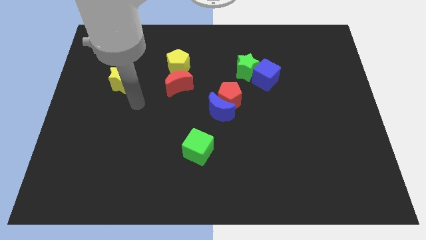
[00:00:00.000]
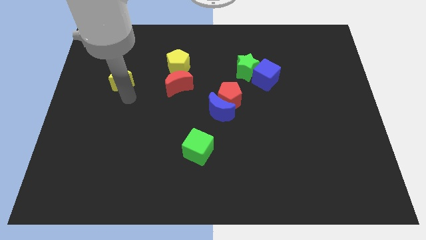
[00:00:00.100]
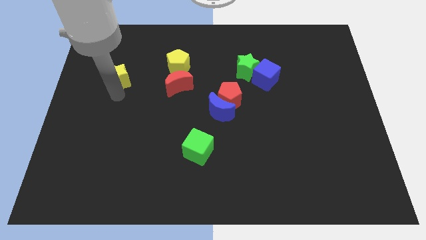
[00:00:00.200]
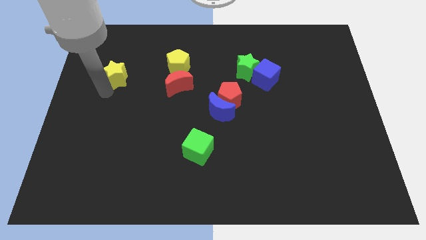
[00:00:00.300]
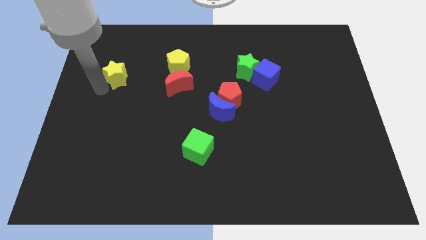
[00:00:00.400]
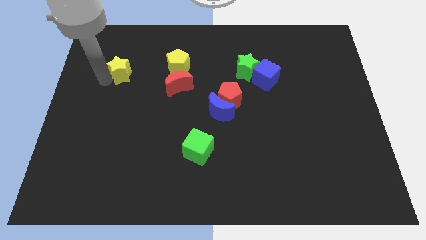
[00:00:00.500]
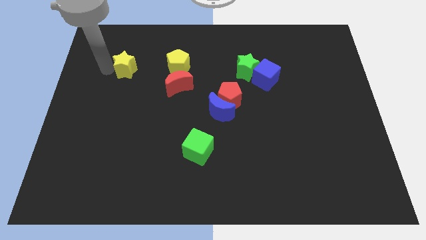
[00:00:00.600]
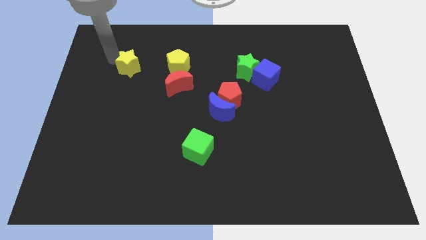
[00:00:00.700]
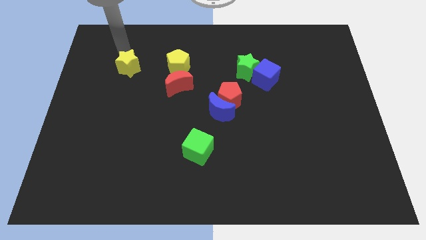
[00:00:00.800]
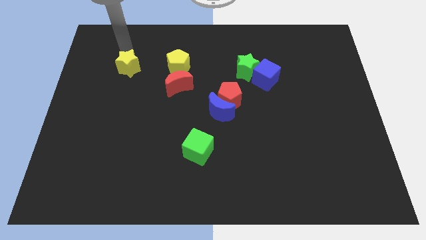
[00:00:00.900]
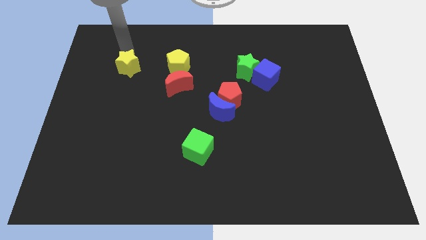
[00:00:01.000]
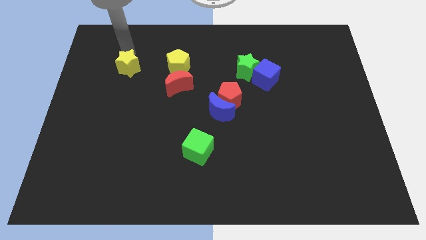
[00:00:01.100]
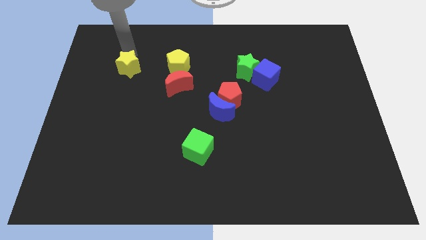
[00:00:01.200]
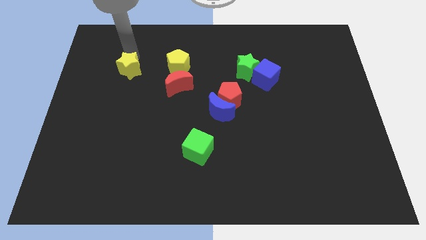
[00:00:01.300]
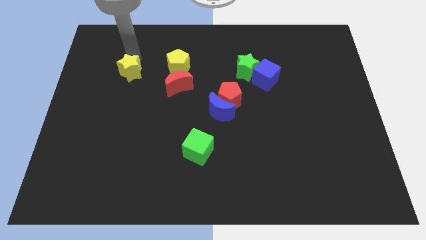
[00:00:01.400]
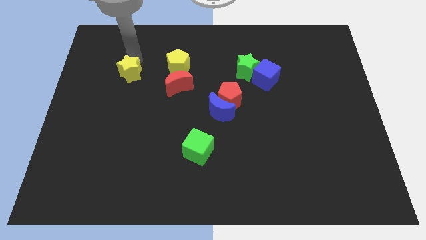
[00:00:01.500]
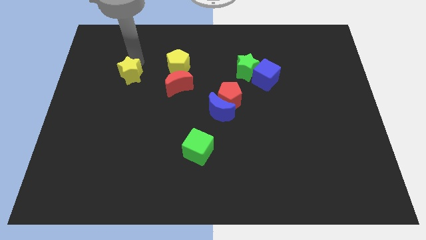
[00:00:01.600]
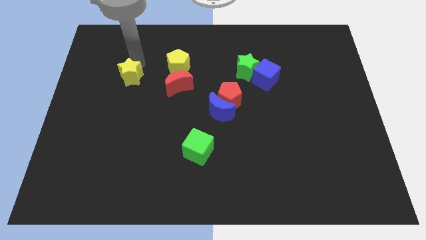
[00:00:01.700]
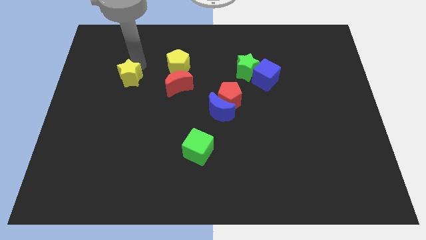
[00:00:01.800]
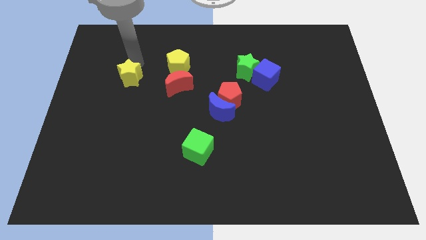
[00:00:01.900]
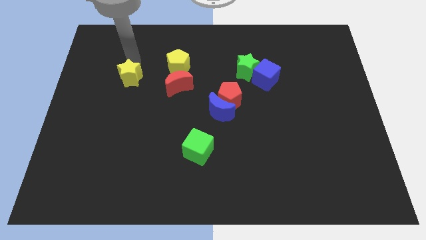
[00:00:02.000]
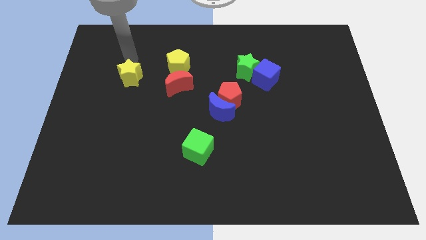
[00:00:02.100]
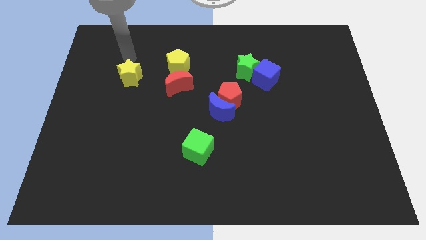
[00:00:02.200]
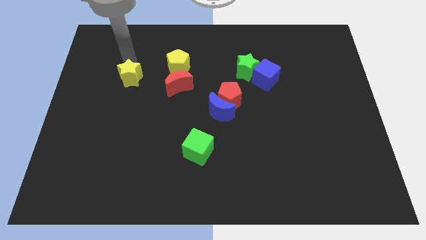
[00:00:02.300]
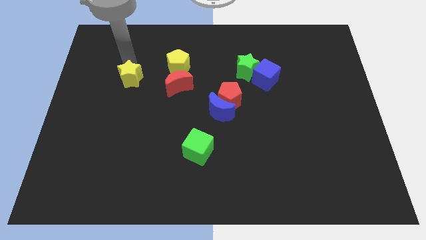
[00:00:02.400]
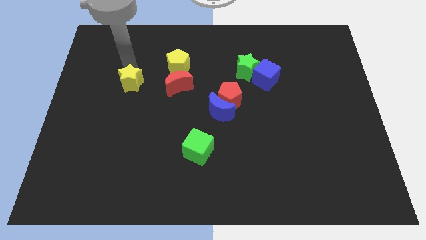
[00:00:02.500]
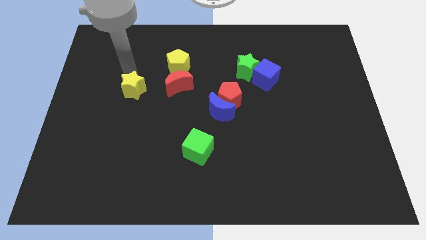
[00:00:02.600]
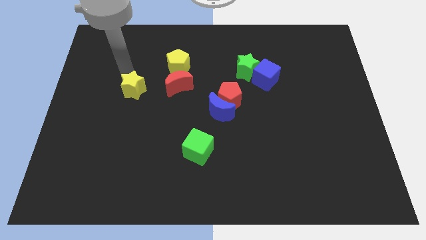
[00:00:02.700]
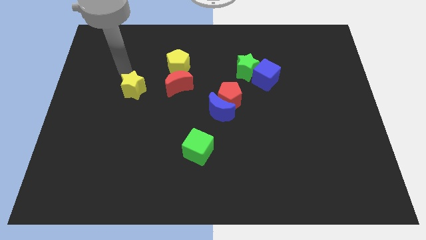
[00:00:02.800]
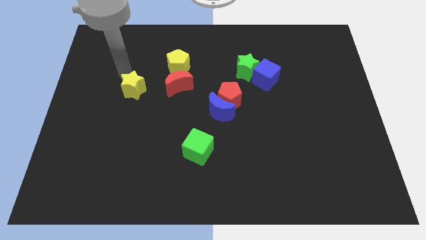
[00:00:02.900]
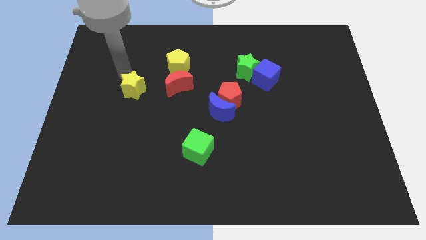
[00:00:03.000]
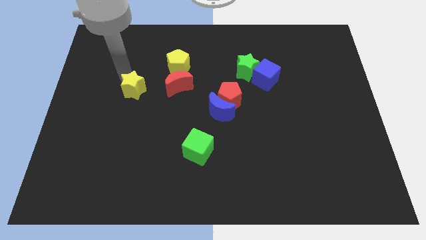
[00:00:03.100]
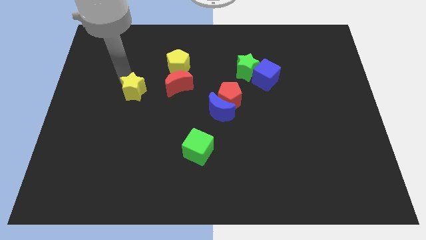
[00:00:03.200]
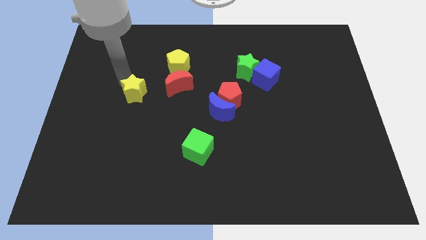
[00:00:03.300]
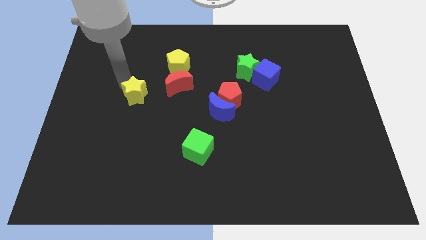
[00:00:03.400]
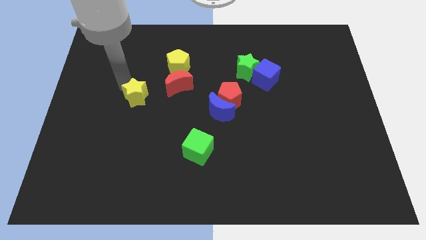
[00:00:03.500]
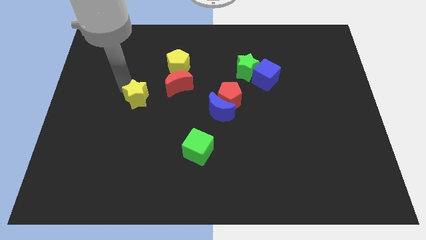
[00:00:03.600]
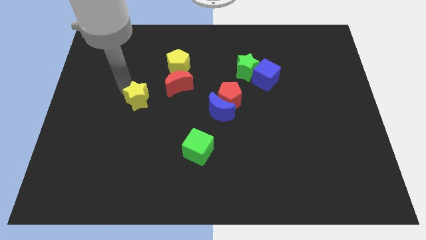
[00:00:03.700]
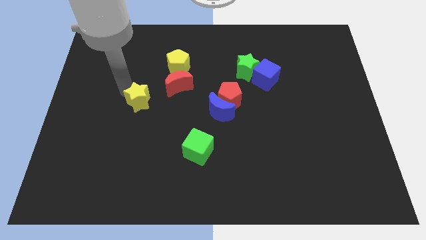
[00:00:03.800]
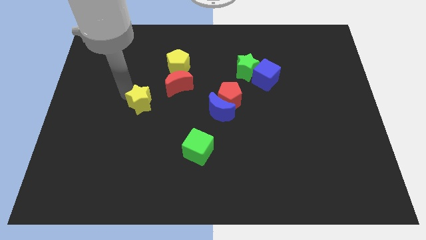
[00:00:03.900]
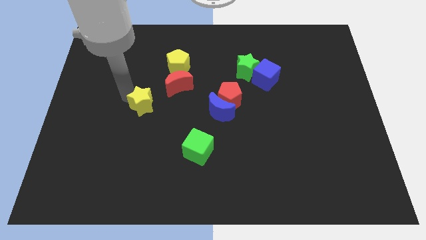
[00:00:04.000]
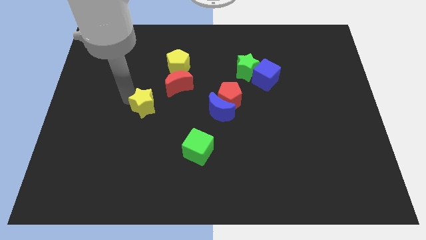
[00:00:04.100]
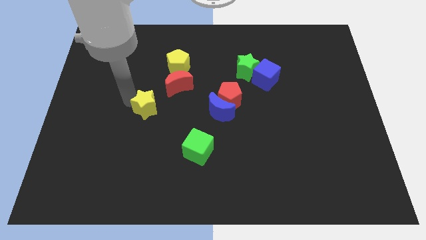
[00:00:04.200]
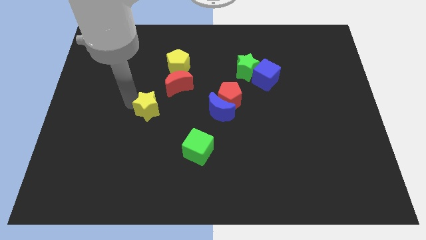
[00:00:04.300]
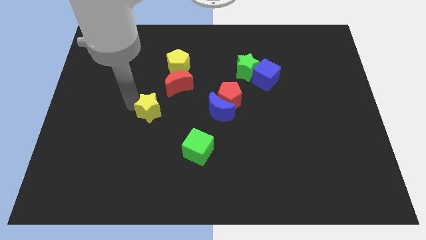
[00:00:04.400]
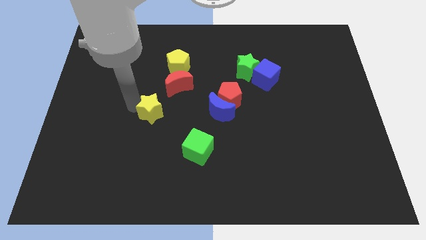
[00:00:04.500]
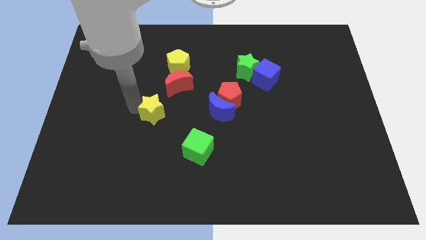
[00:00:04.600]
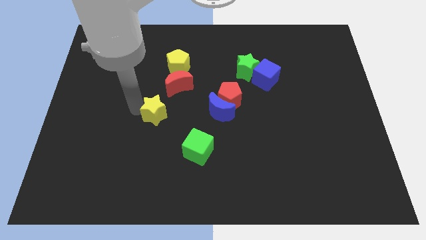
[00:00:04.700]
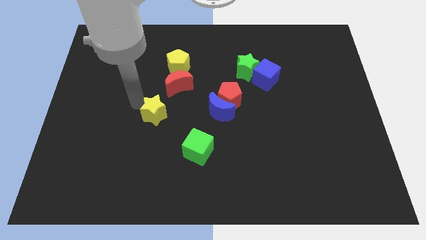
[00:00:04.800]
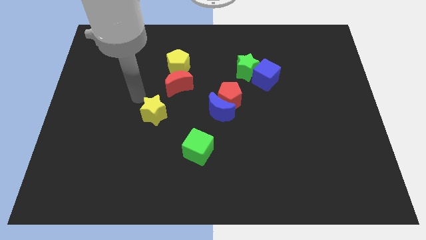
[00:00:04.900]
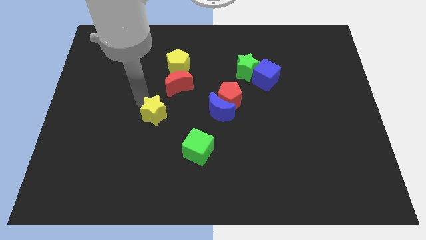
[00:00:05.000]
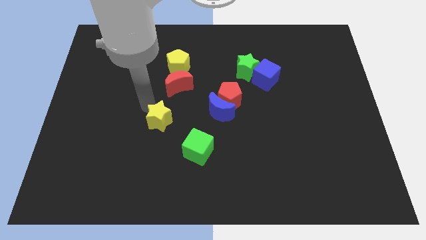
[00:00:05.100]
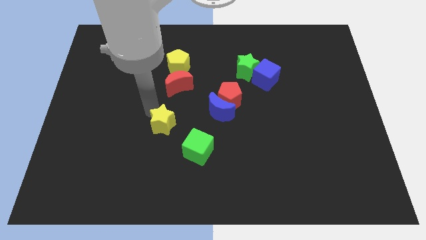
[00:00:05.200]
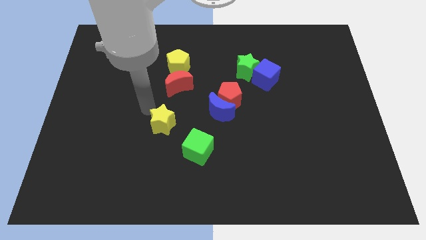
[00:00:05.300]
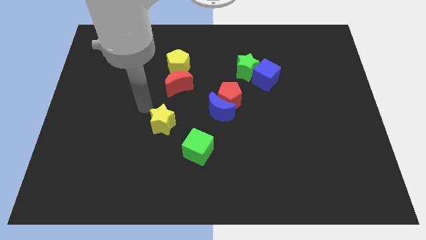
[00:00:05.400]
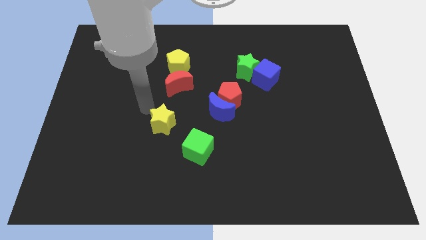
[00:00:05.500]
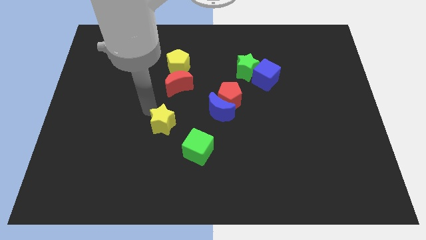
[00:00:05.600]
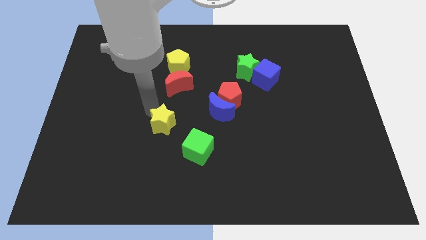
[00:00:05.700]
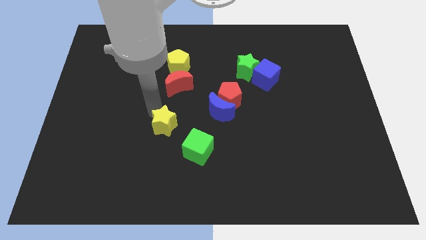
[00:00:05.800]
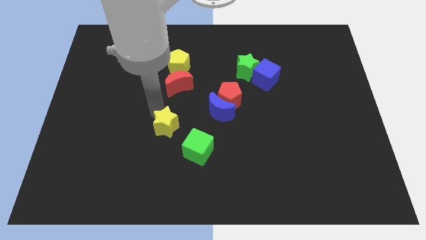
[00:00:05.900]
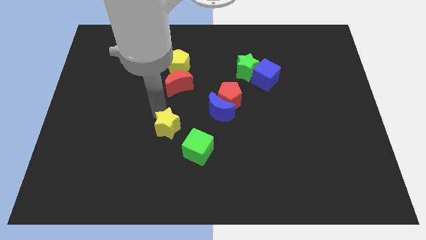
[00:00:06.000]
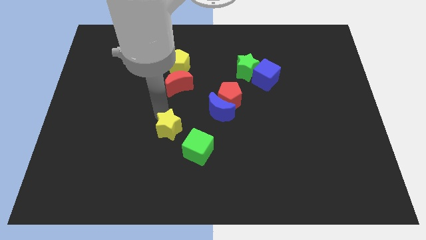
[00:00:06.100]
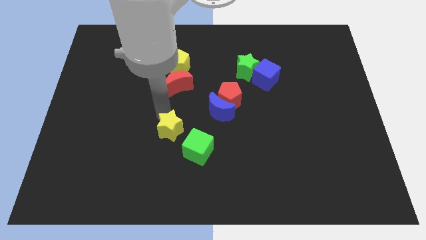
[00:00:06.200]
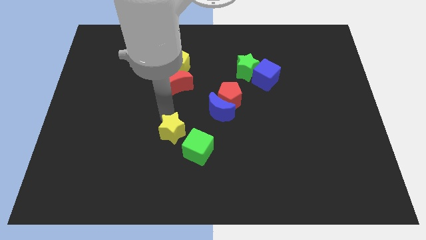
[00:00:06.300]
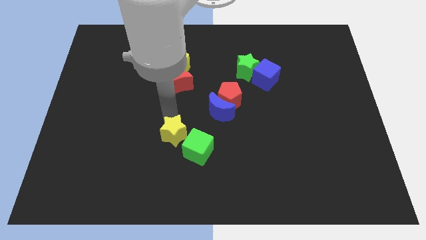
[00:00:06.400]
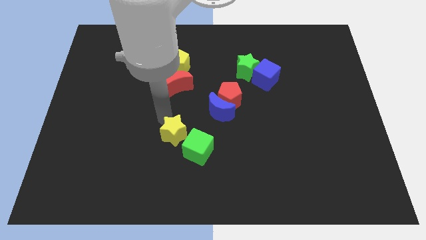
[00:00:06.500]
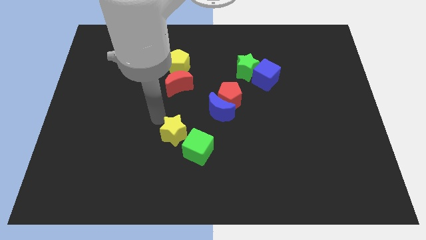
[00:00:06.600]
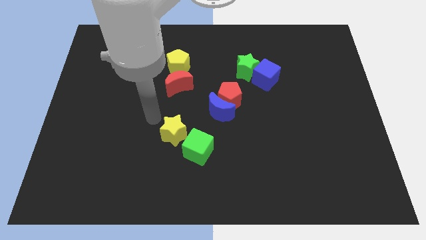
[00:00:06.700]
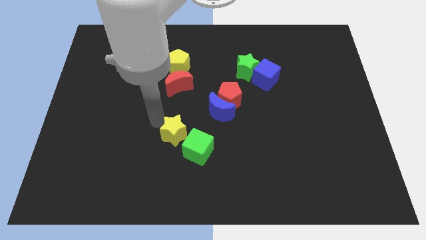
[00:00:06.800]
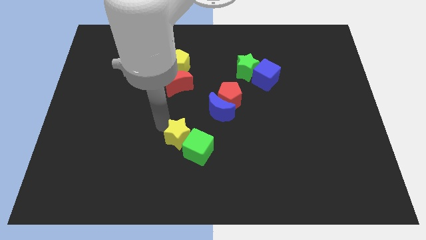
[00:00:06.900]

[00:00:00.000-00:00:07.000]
slide the yellow star towards the green cube
